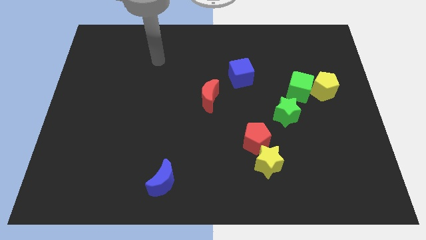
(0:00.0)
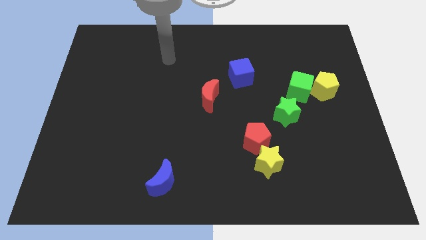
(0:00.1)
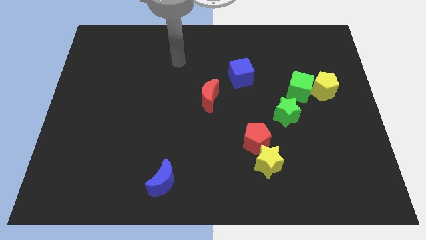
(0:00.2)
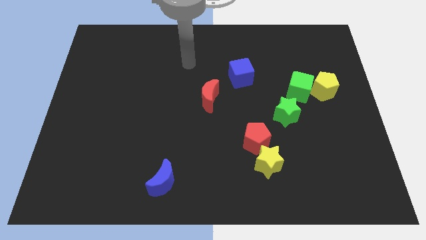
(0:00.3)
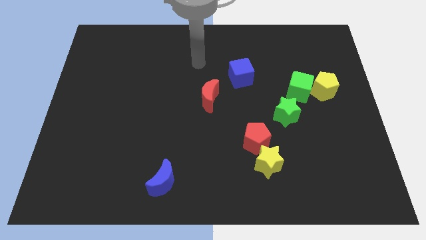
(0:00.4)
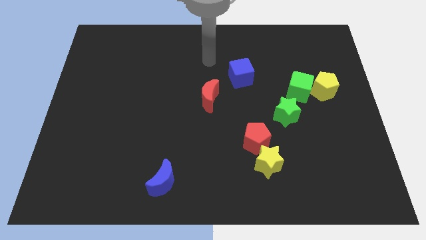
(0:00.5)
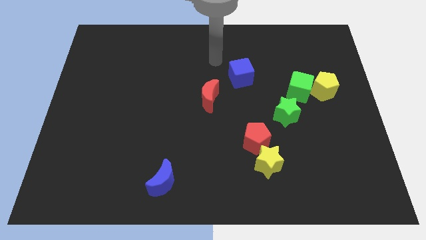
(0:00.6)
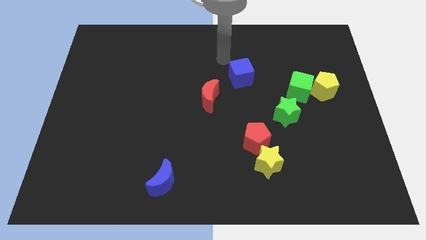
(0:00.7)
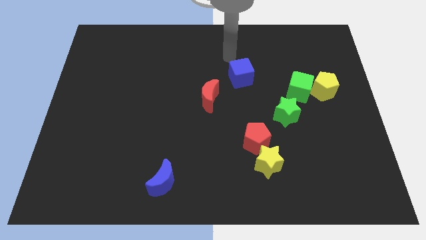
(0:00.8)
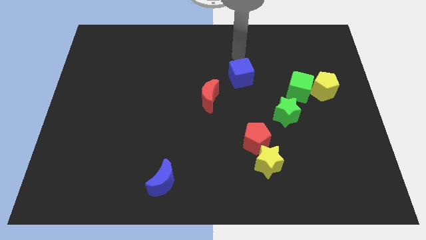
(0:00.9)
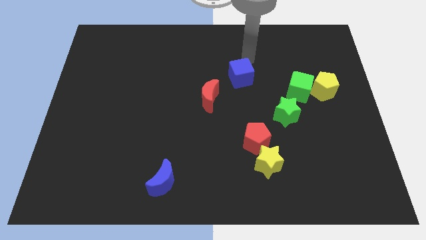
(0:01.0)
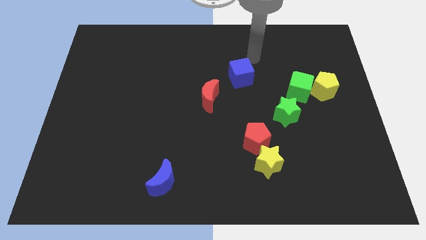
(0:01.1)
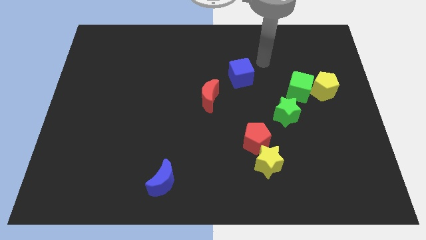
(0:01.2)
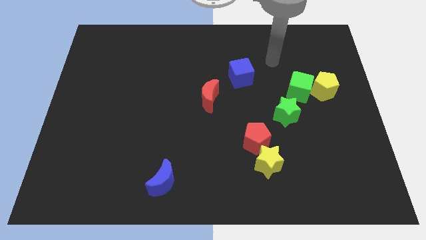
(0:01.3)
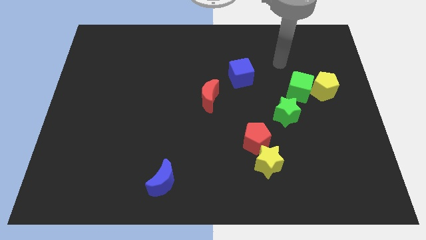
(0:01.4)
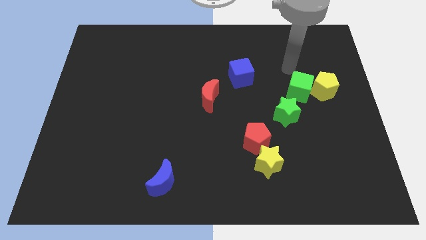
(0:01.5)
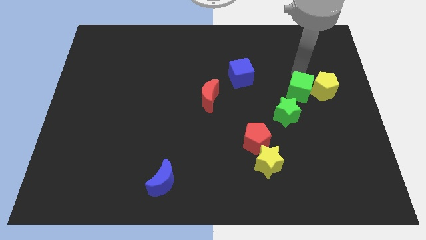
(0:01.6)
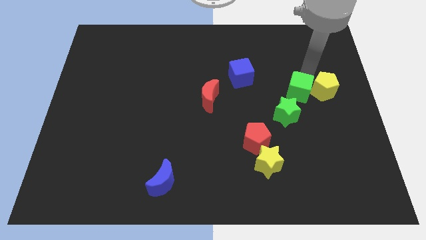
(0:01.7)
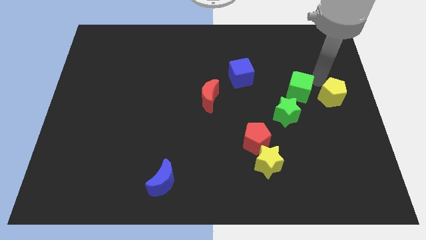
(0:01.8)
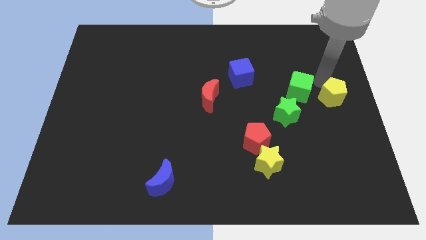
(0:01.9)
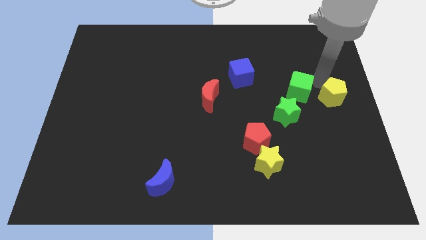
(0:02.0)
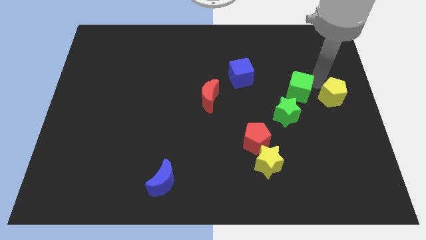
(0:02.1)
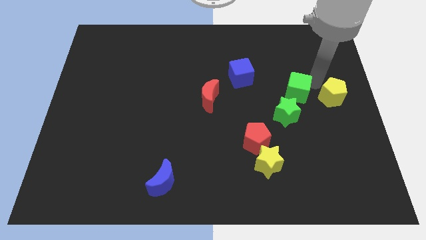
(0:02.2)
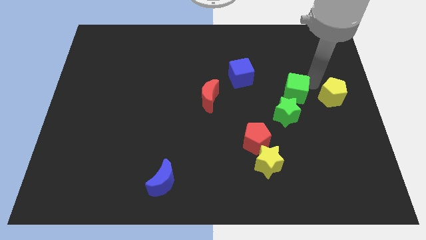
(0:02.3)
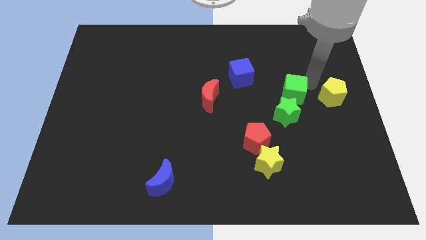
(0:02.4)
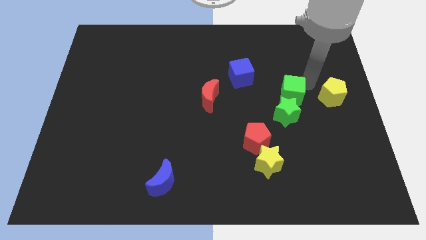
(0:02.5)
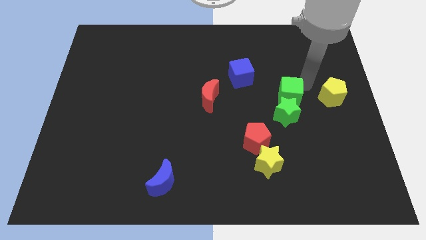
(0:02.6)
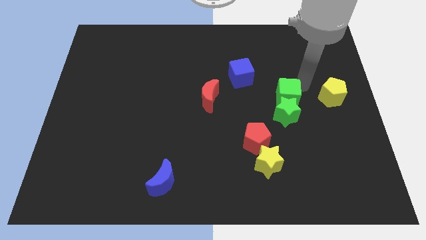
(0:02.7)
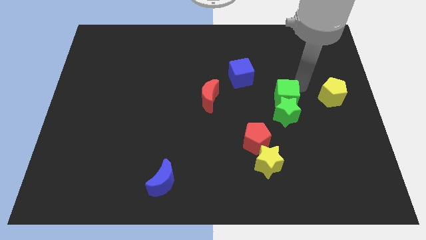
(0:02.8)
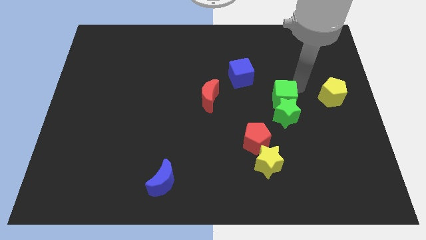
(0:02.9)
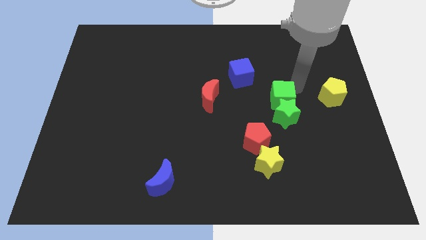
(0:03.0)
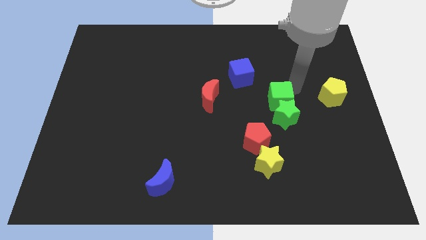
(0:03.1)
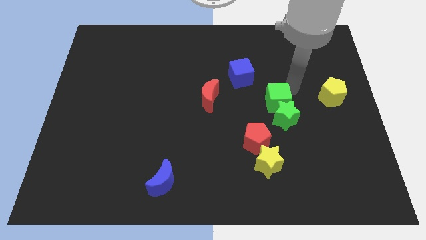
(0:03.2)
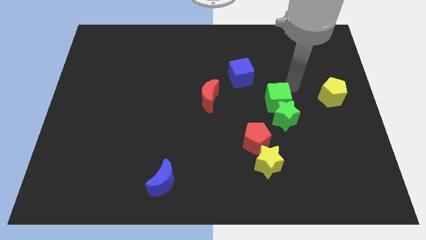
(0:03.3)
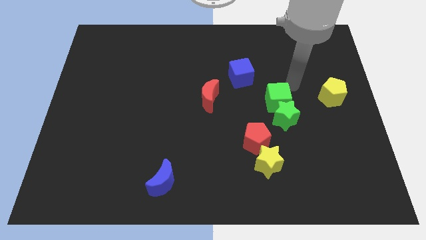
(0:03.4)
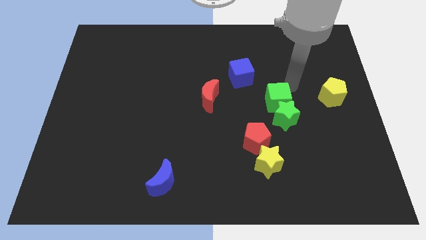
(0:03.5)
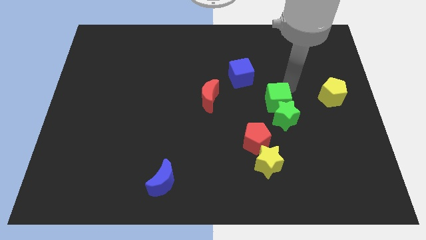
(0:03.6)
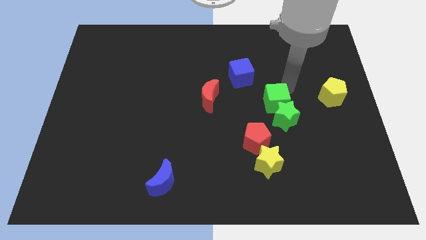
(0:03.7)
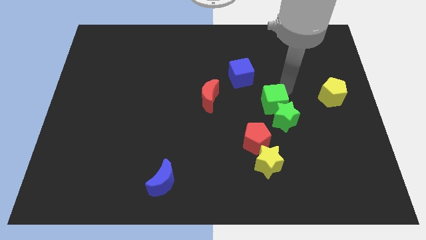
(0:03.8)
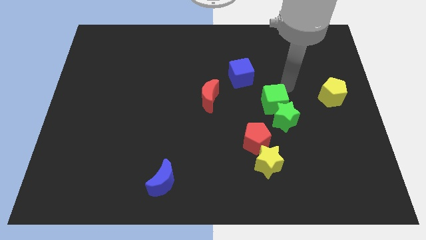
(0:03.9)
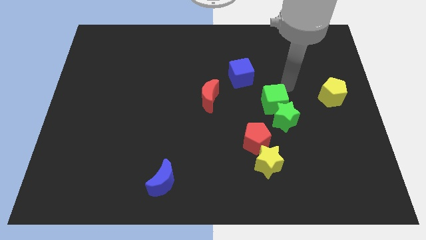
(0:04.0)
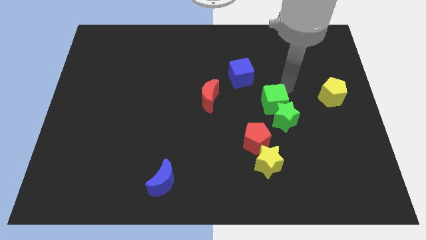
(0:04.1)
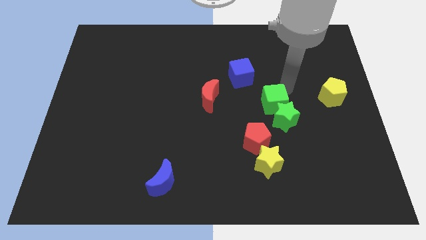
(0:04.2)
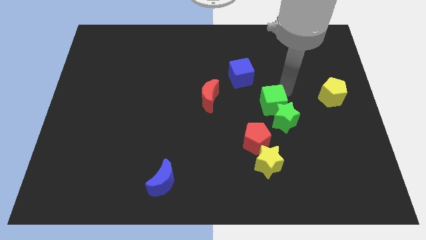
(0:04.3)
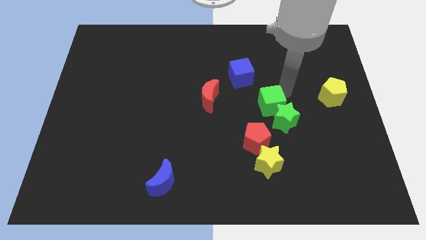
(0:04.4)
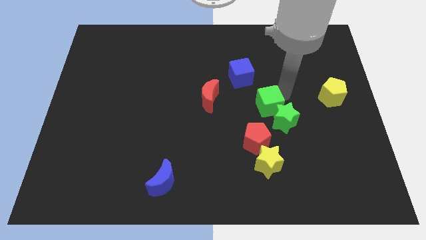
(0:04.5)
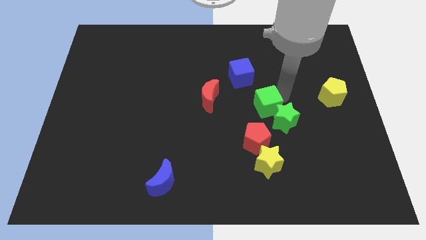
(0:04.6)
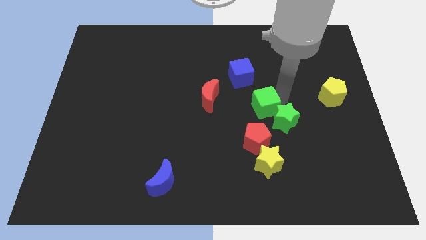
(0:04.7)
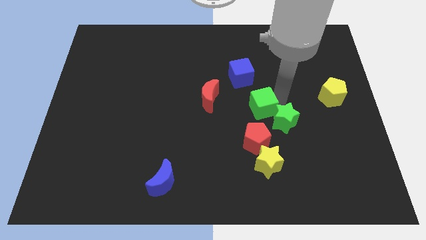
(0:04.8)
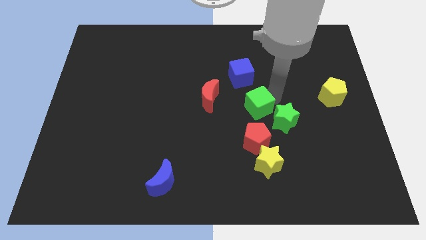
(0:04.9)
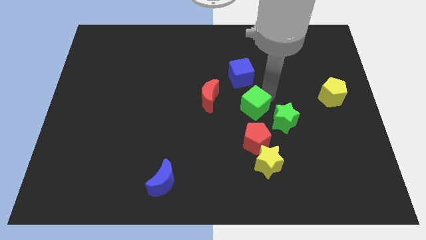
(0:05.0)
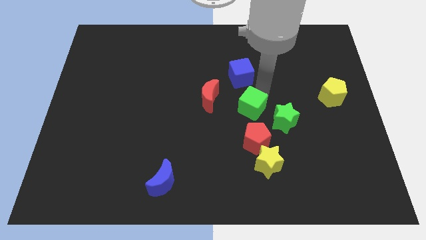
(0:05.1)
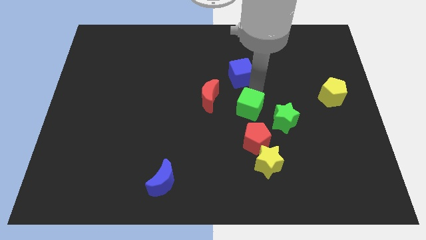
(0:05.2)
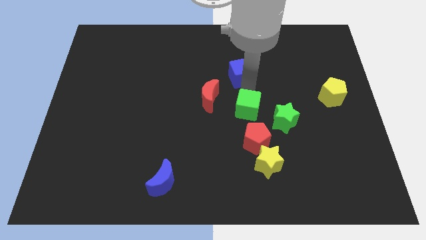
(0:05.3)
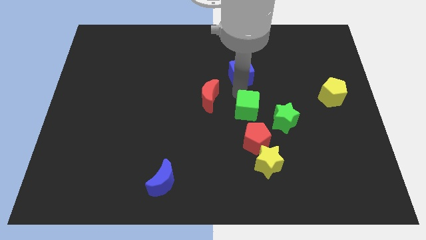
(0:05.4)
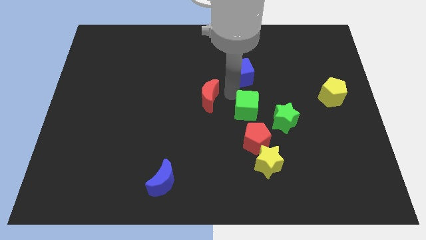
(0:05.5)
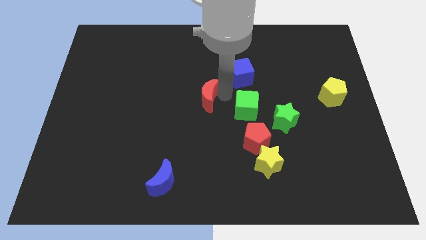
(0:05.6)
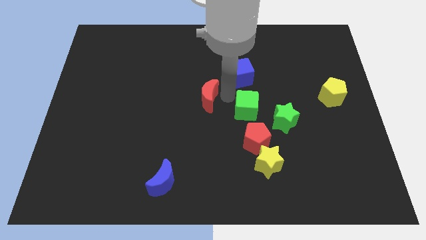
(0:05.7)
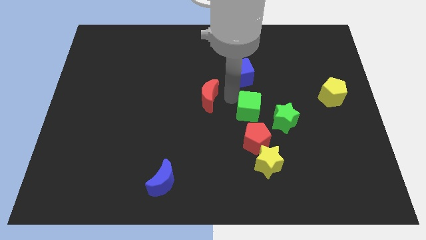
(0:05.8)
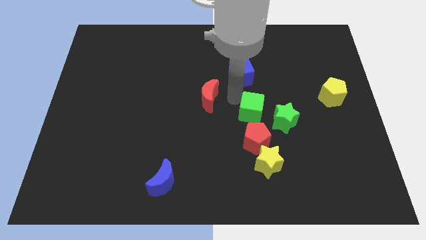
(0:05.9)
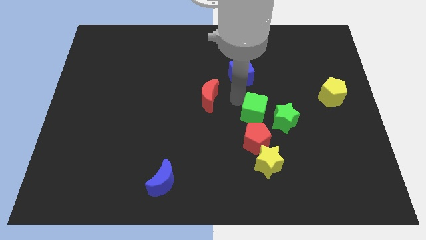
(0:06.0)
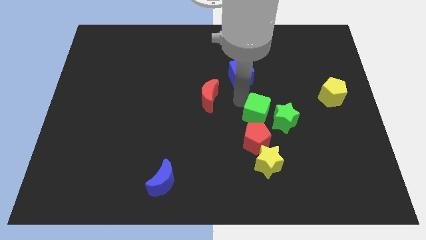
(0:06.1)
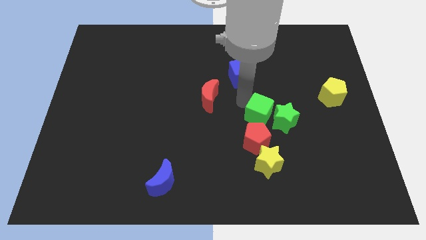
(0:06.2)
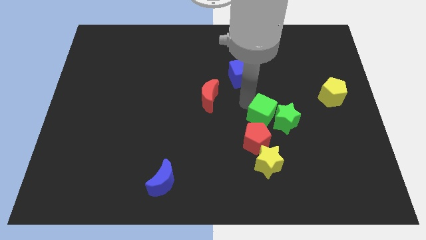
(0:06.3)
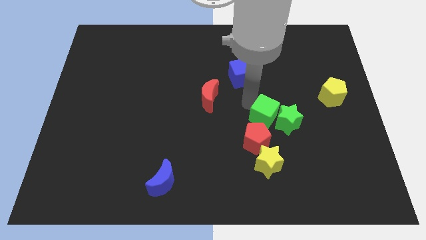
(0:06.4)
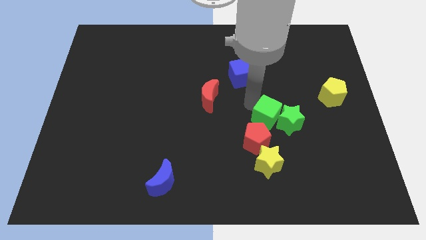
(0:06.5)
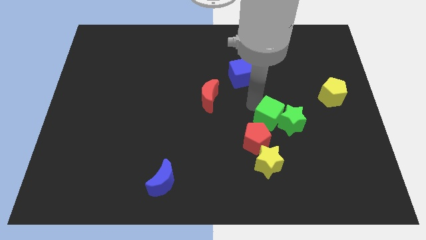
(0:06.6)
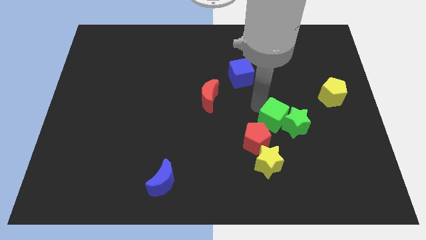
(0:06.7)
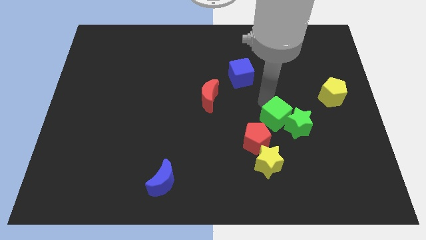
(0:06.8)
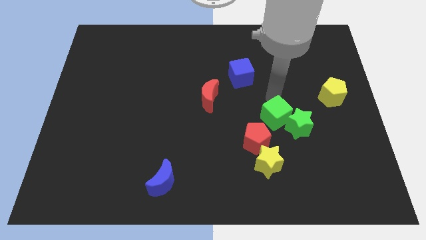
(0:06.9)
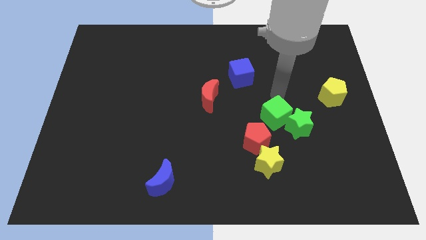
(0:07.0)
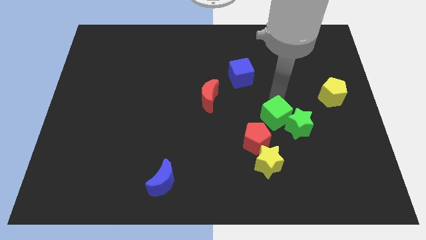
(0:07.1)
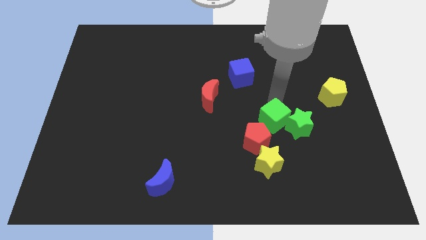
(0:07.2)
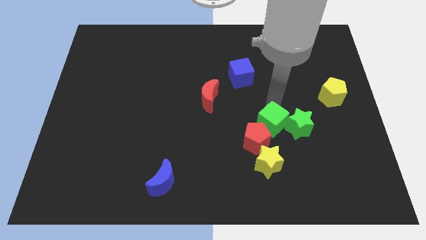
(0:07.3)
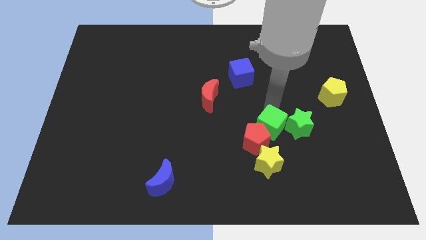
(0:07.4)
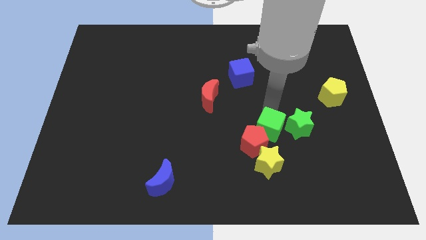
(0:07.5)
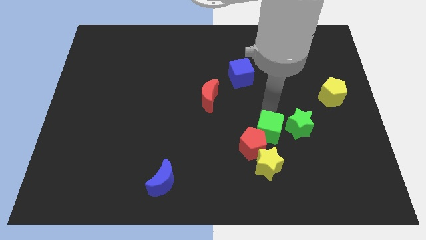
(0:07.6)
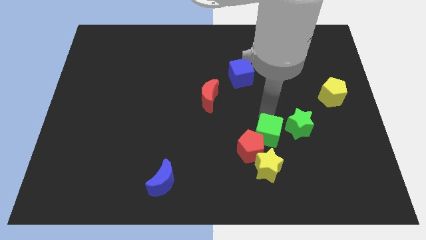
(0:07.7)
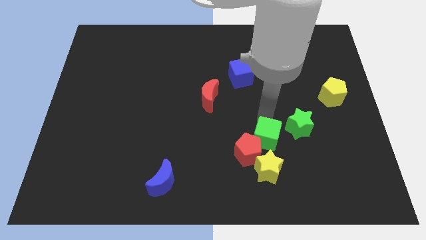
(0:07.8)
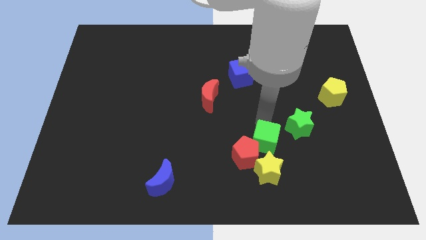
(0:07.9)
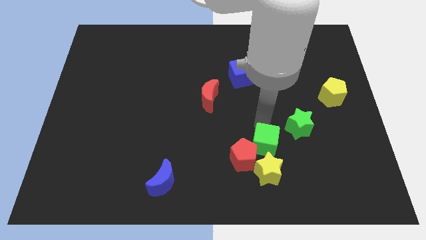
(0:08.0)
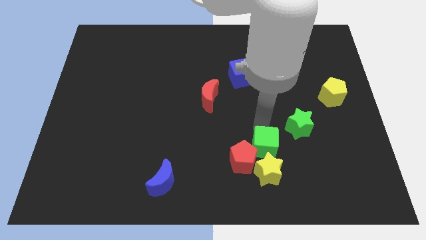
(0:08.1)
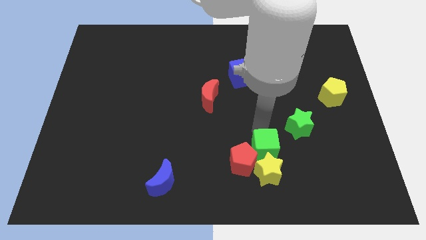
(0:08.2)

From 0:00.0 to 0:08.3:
move the green cube towards the yellow star

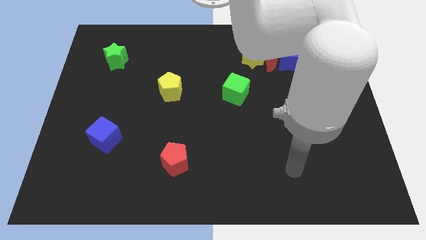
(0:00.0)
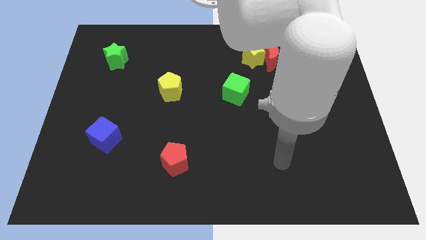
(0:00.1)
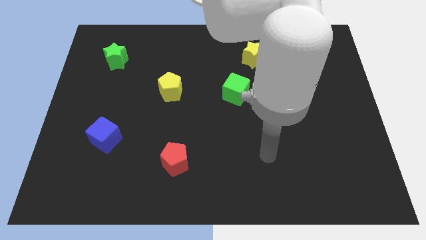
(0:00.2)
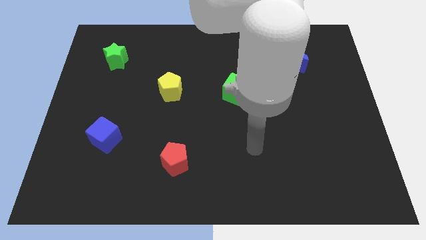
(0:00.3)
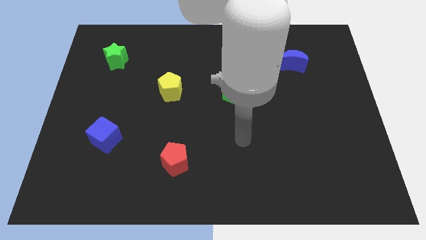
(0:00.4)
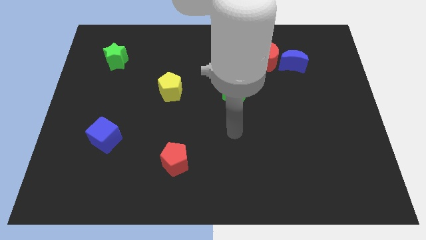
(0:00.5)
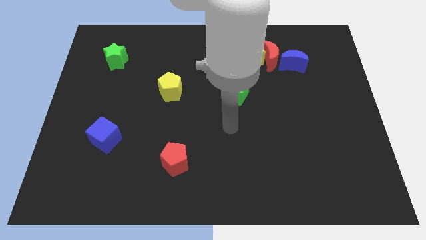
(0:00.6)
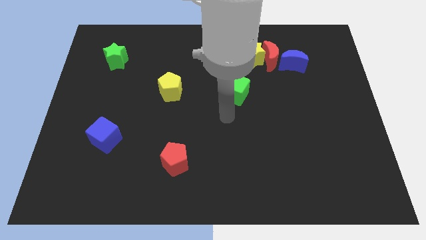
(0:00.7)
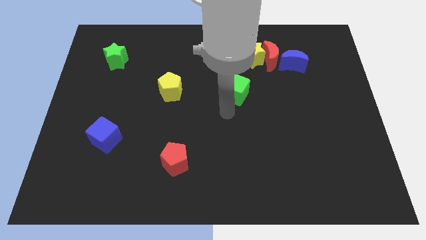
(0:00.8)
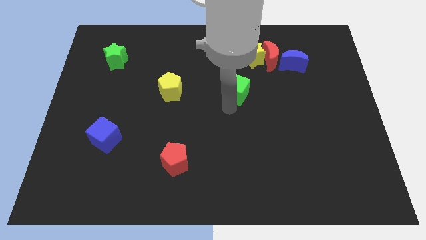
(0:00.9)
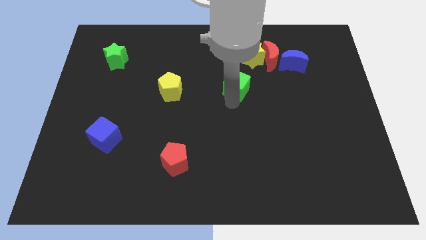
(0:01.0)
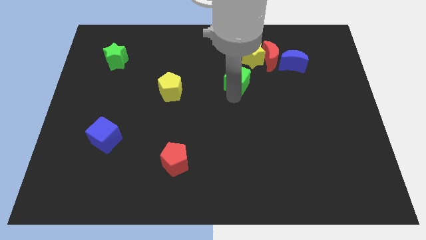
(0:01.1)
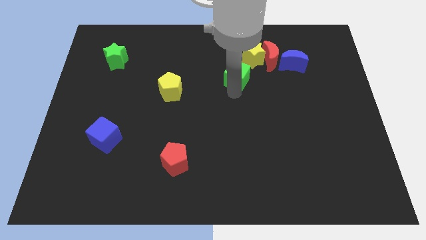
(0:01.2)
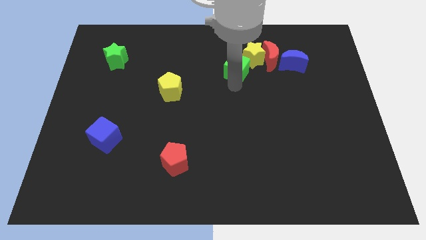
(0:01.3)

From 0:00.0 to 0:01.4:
move the green cube close to the yellow star
